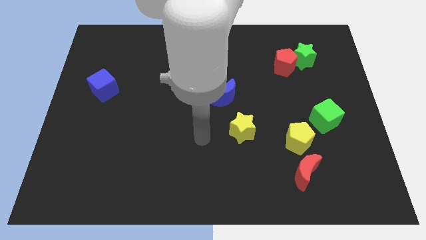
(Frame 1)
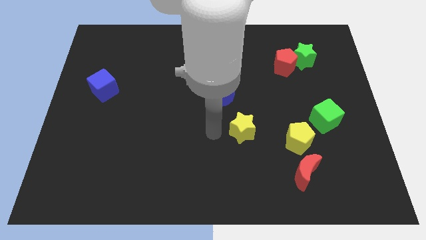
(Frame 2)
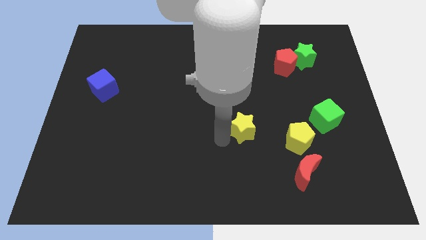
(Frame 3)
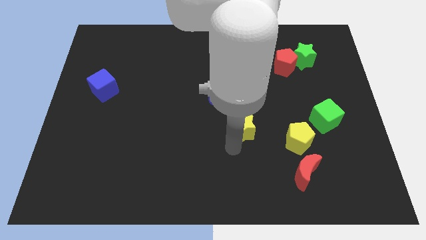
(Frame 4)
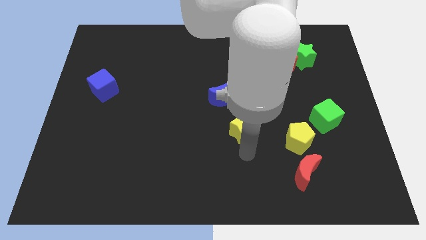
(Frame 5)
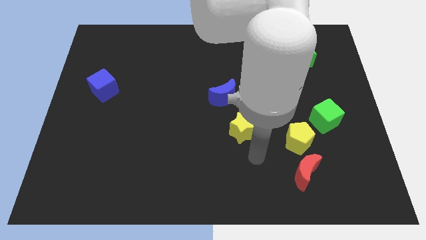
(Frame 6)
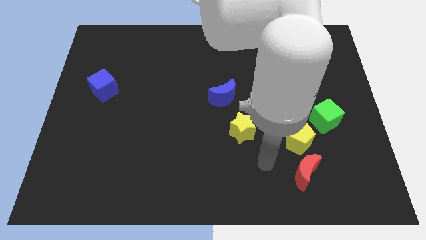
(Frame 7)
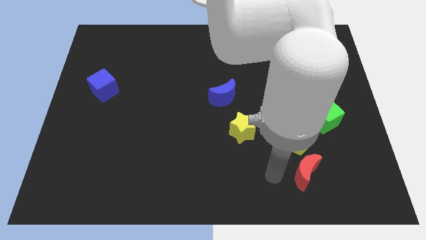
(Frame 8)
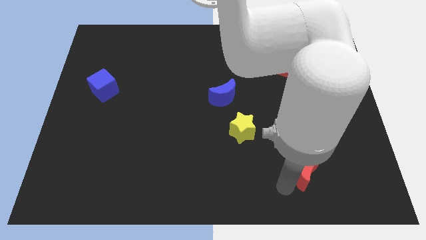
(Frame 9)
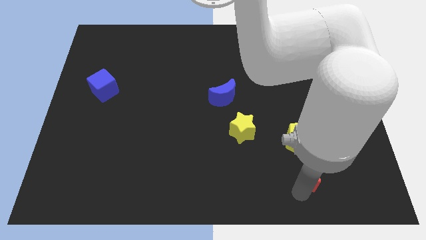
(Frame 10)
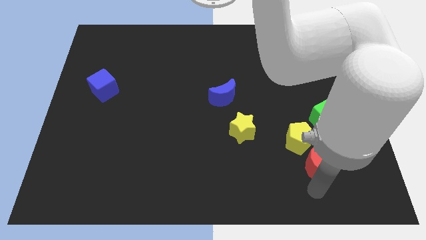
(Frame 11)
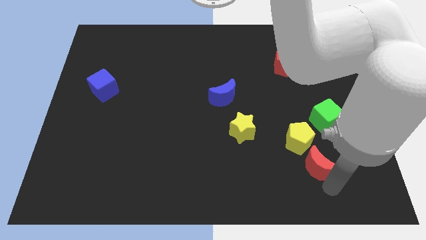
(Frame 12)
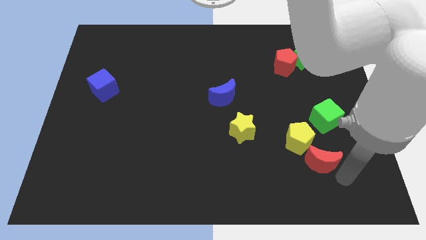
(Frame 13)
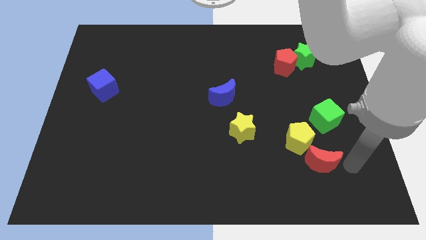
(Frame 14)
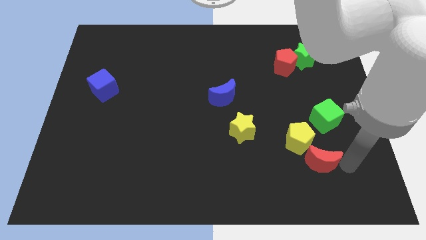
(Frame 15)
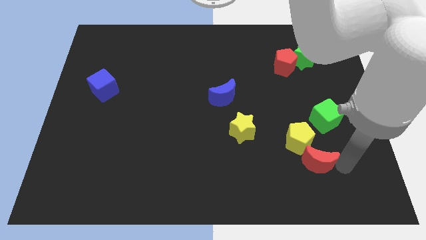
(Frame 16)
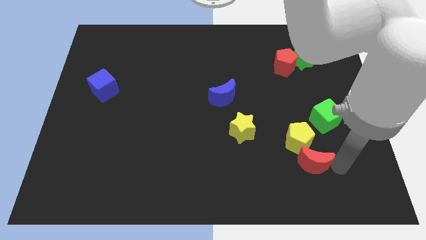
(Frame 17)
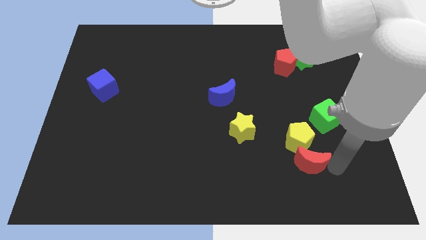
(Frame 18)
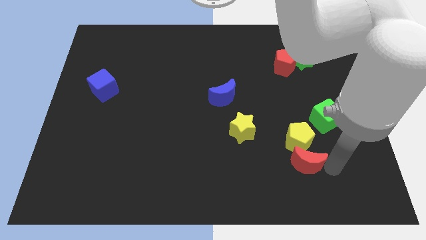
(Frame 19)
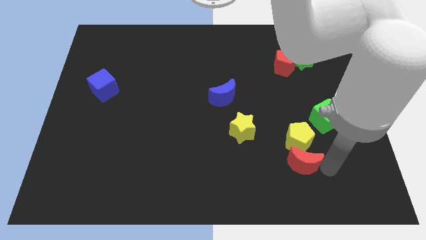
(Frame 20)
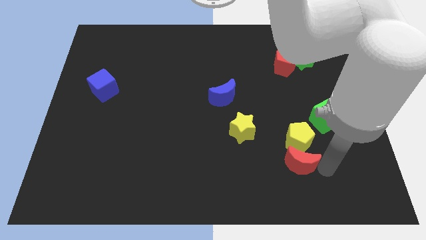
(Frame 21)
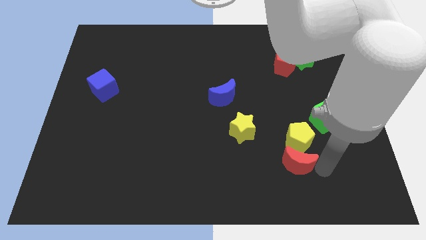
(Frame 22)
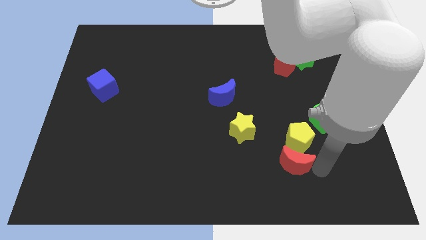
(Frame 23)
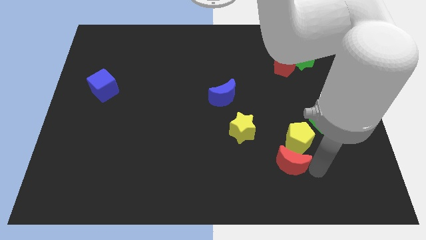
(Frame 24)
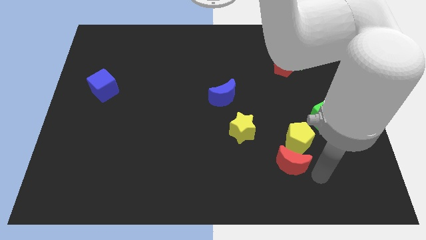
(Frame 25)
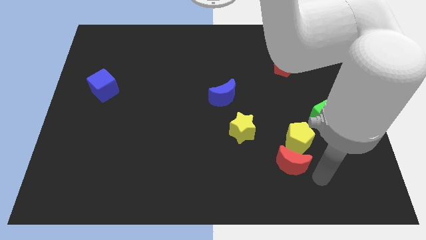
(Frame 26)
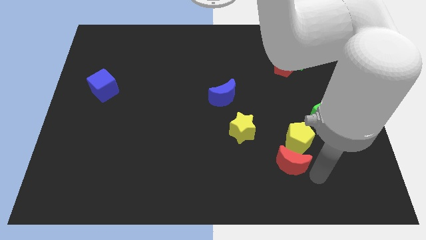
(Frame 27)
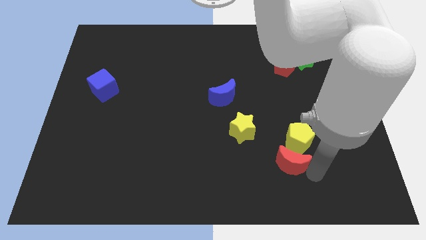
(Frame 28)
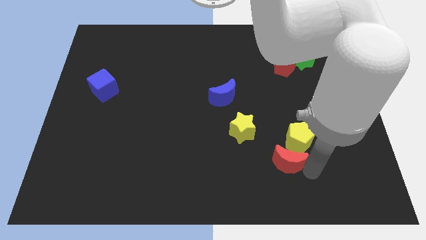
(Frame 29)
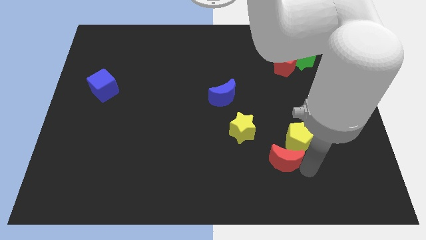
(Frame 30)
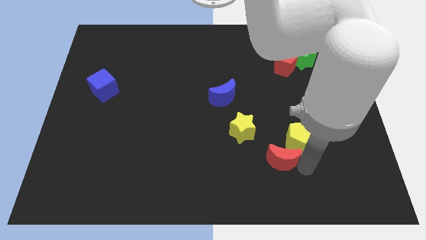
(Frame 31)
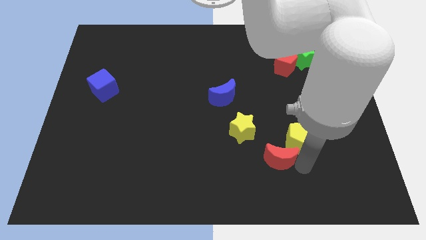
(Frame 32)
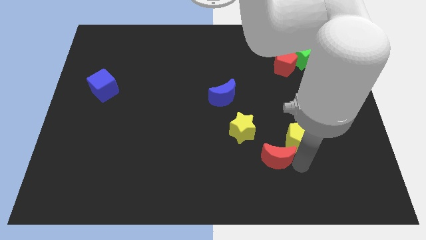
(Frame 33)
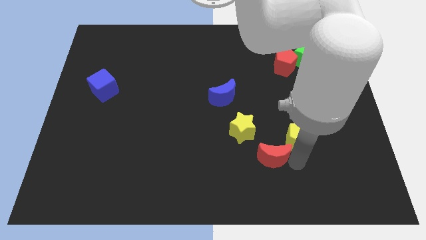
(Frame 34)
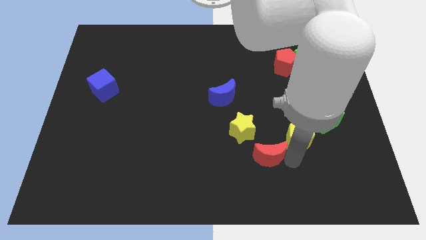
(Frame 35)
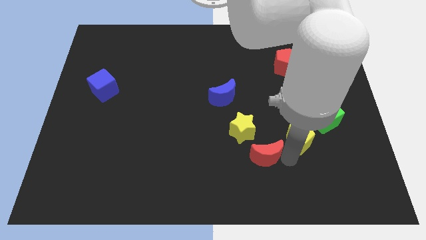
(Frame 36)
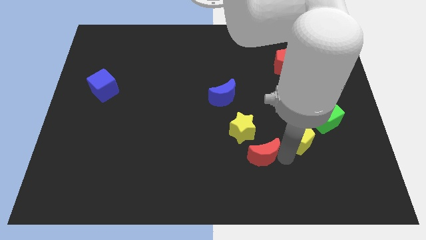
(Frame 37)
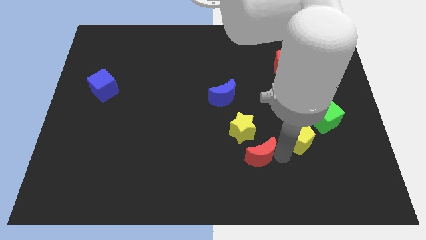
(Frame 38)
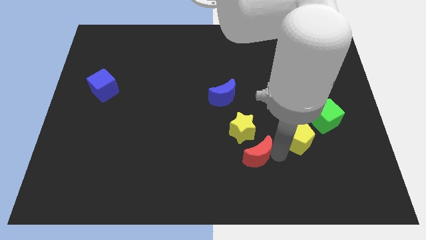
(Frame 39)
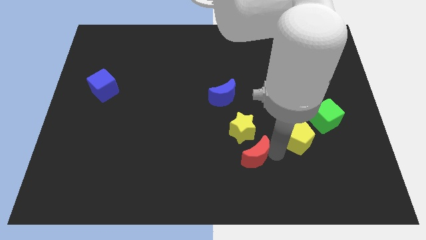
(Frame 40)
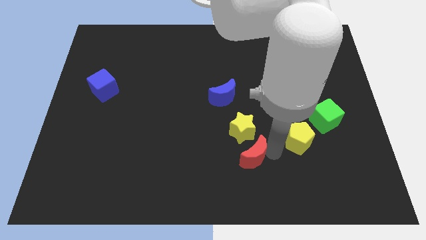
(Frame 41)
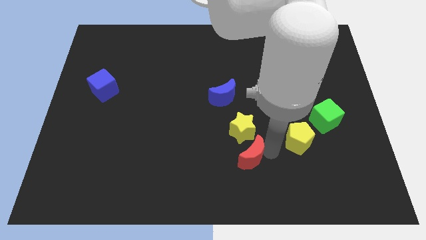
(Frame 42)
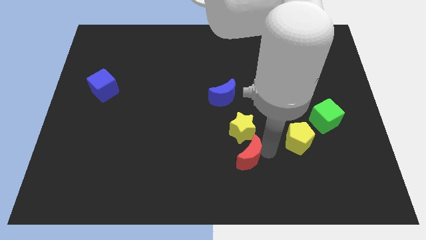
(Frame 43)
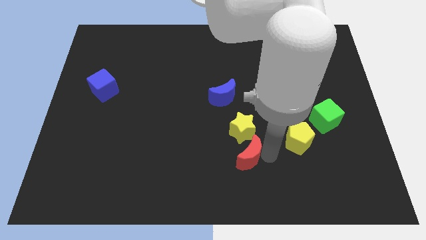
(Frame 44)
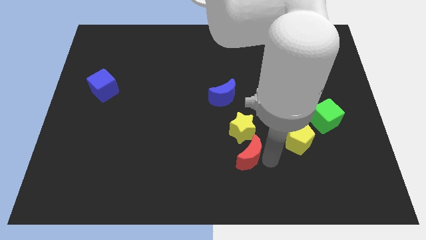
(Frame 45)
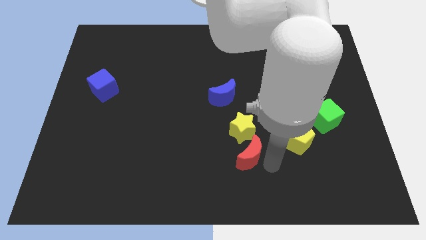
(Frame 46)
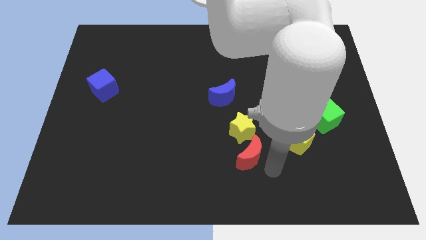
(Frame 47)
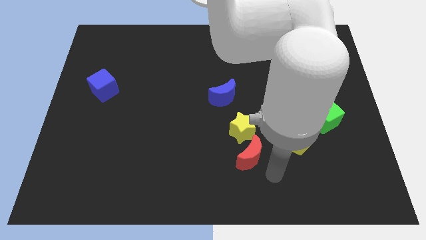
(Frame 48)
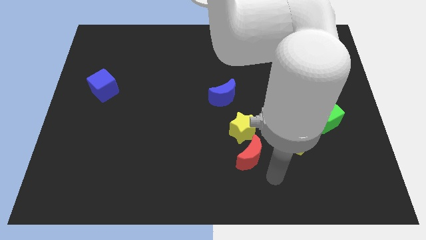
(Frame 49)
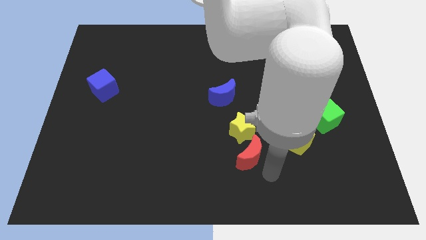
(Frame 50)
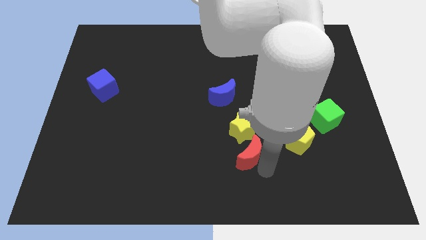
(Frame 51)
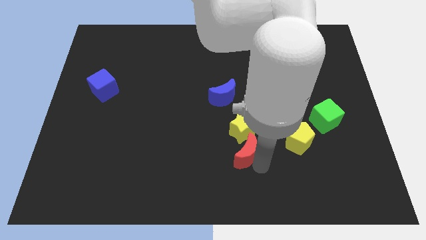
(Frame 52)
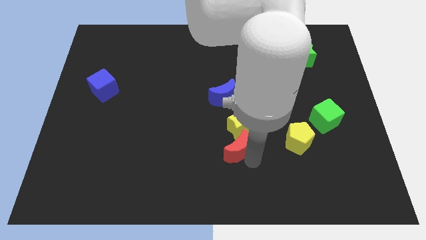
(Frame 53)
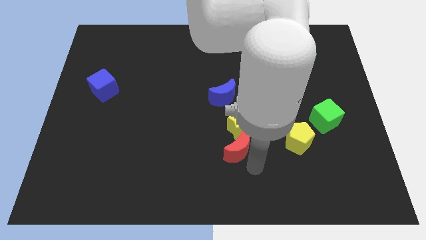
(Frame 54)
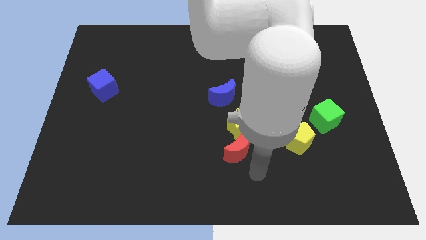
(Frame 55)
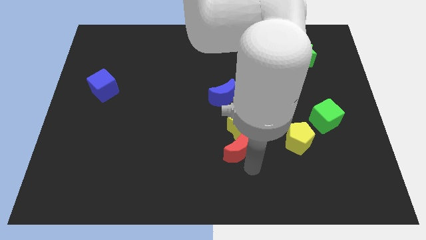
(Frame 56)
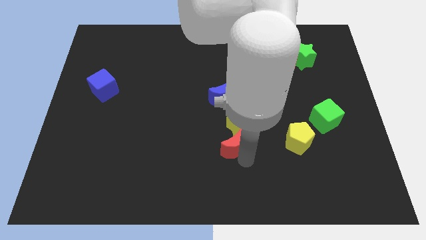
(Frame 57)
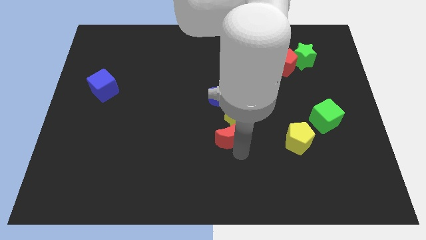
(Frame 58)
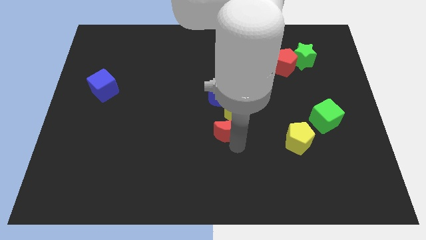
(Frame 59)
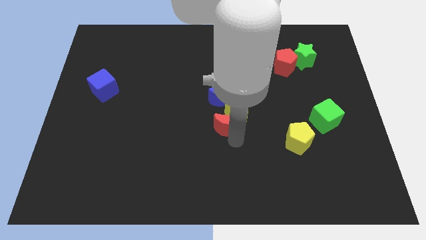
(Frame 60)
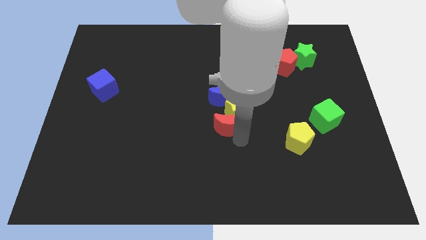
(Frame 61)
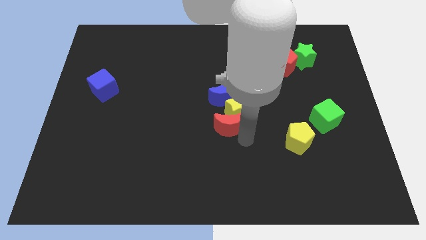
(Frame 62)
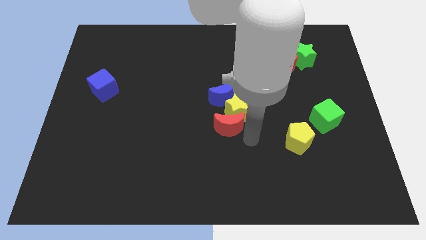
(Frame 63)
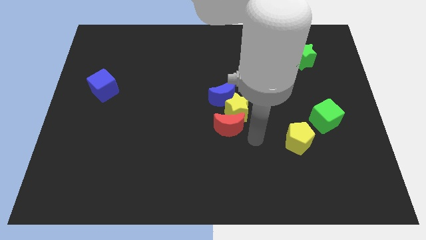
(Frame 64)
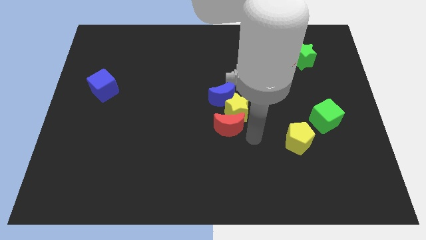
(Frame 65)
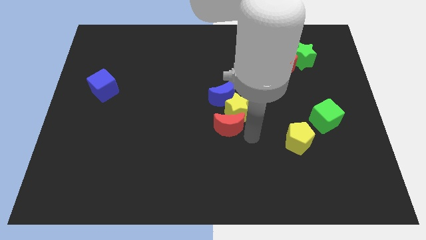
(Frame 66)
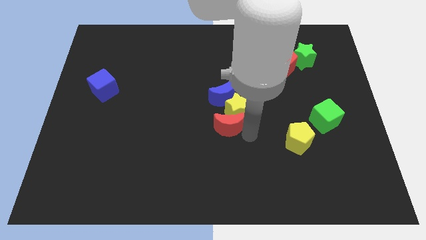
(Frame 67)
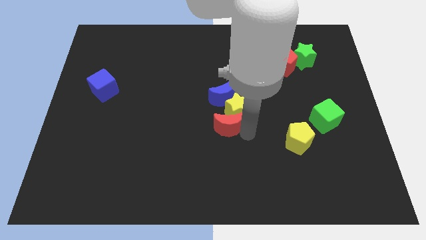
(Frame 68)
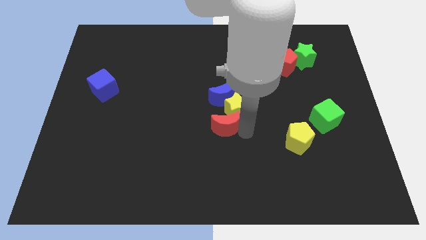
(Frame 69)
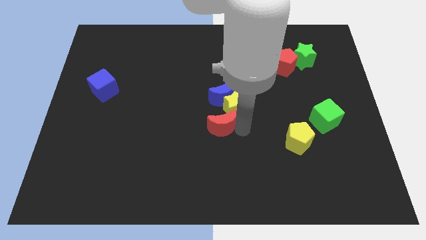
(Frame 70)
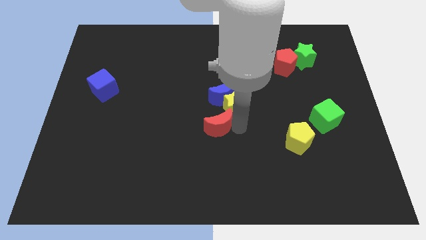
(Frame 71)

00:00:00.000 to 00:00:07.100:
slide the red moon upwards and left diagonally

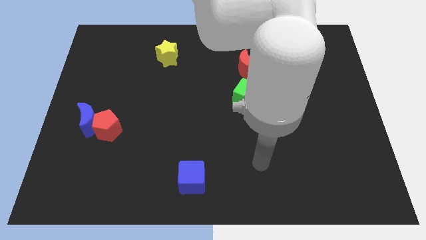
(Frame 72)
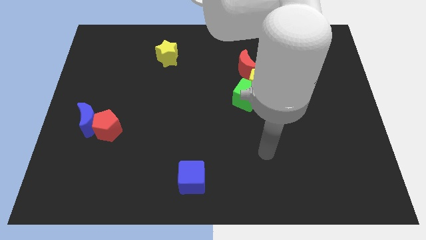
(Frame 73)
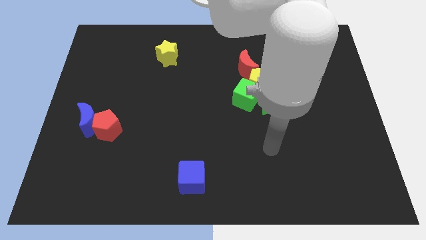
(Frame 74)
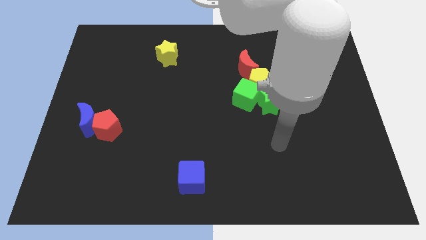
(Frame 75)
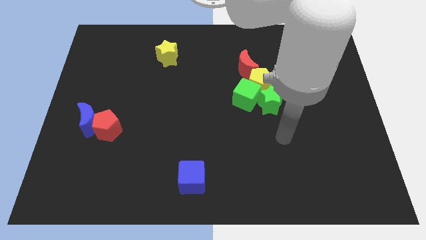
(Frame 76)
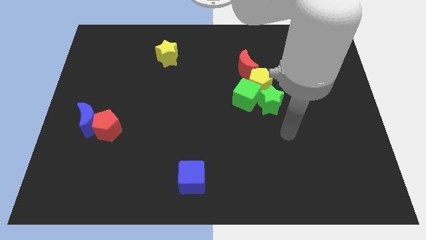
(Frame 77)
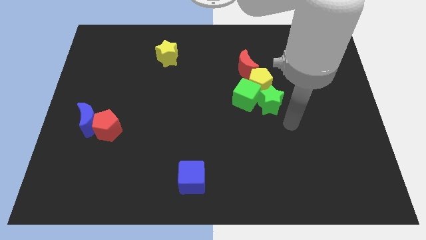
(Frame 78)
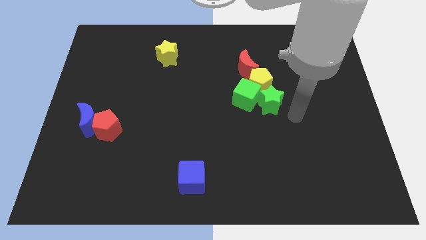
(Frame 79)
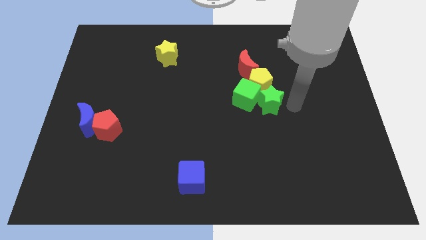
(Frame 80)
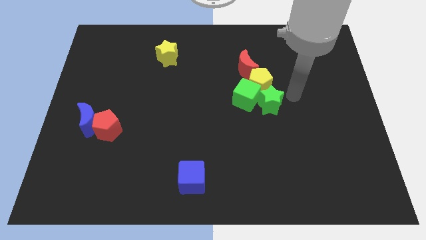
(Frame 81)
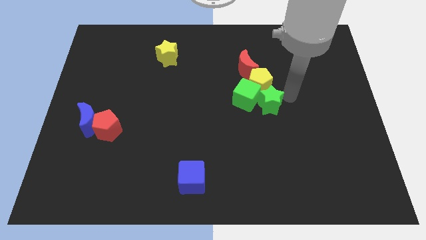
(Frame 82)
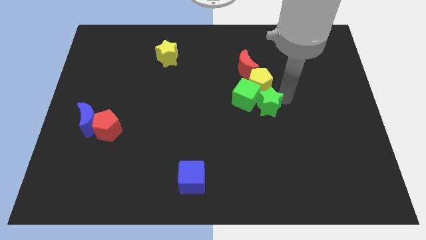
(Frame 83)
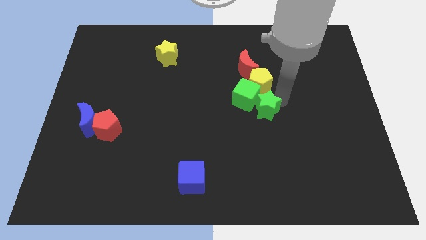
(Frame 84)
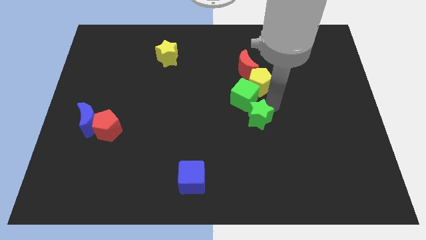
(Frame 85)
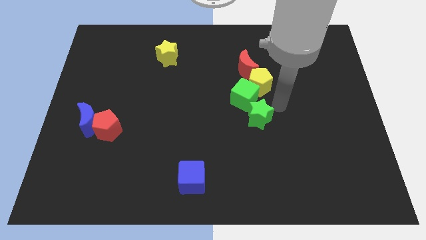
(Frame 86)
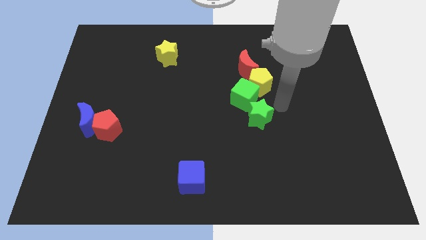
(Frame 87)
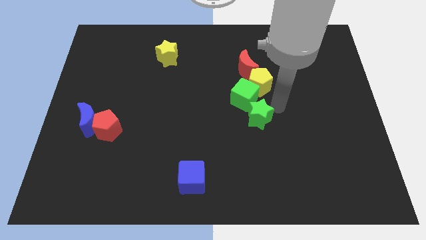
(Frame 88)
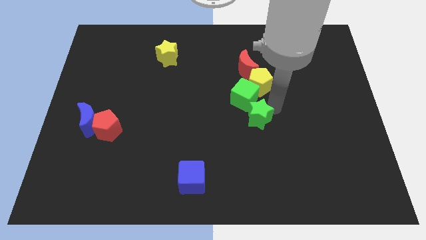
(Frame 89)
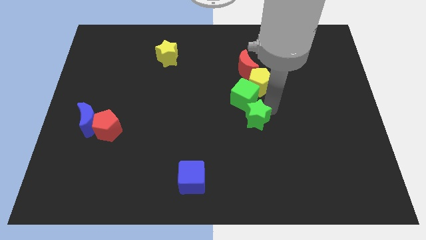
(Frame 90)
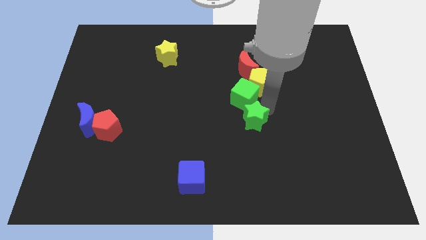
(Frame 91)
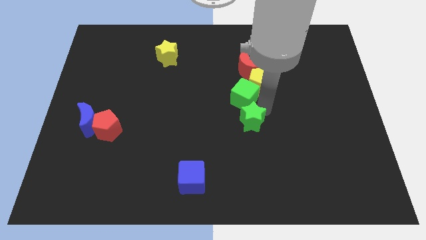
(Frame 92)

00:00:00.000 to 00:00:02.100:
move the green star diagonally down and left somewhat
